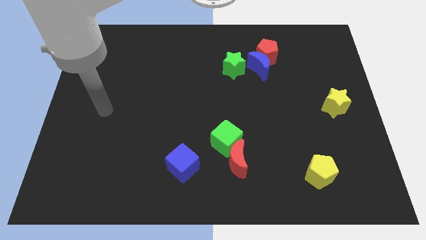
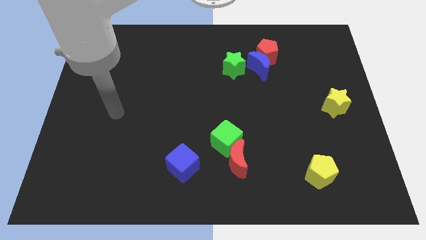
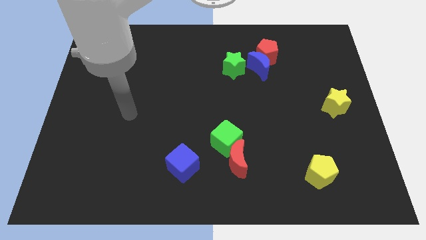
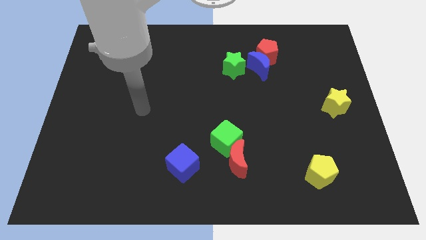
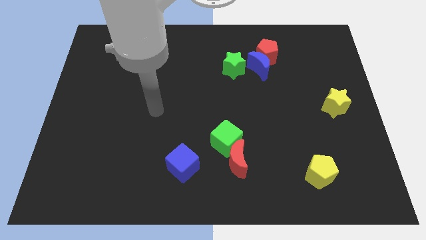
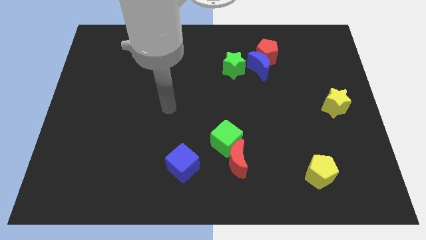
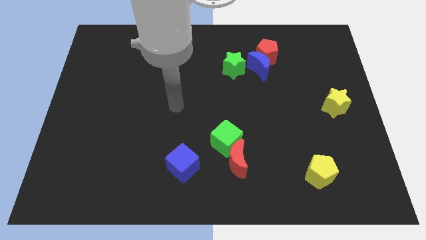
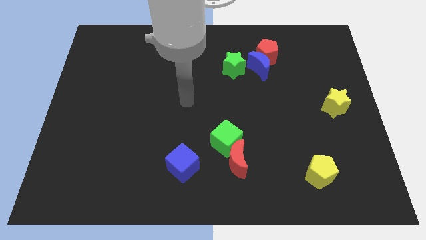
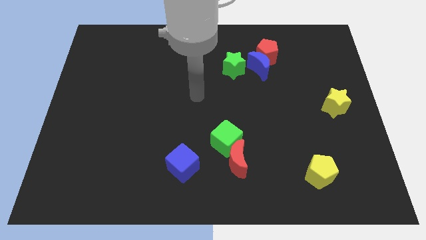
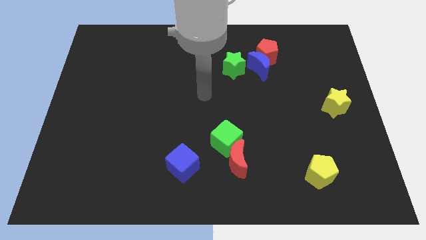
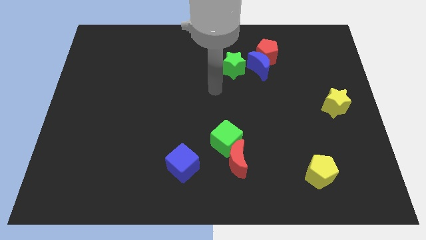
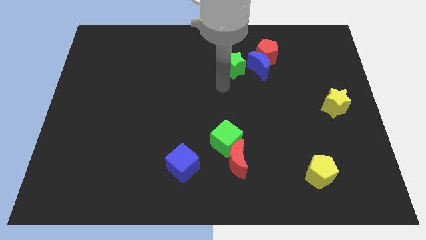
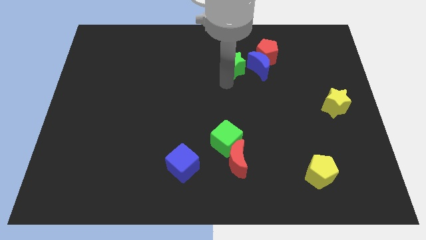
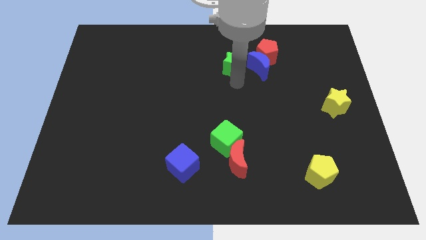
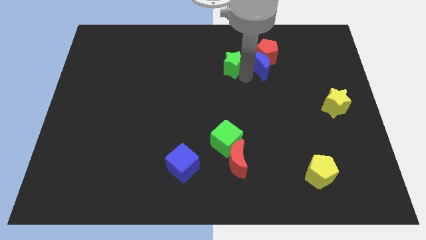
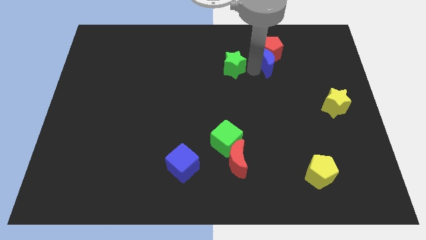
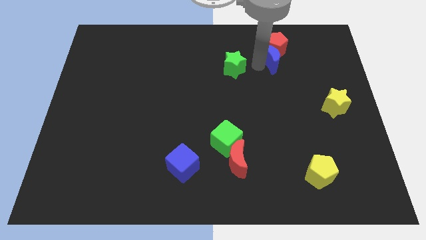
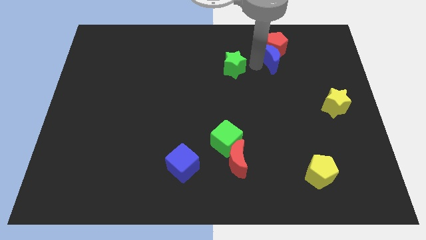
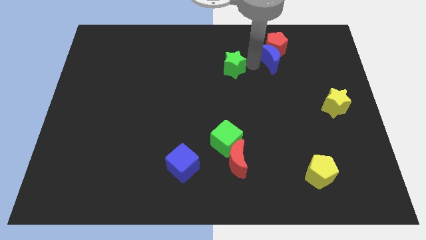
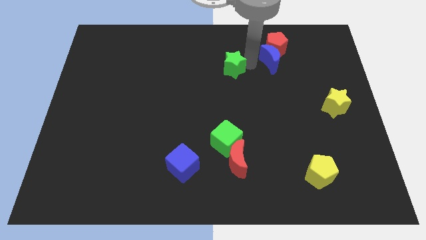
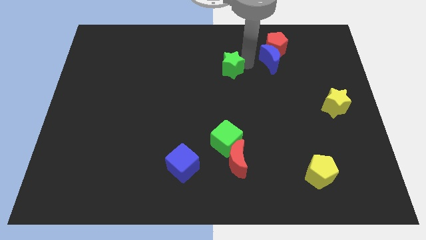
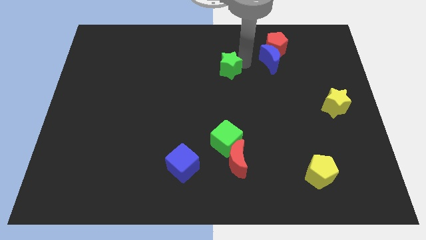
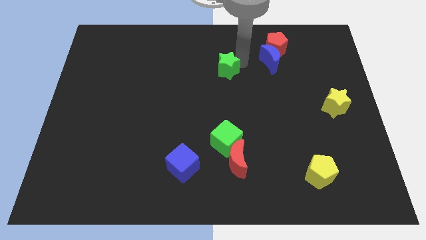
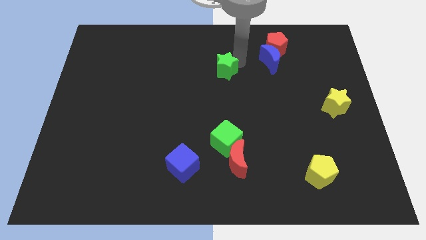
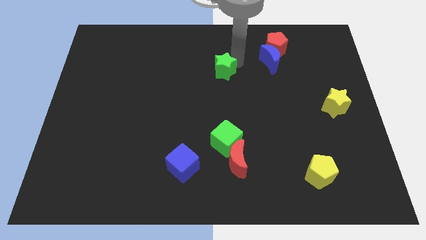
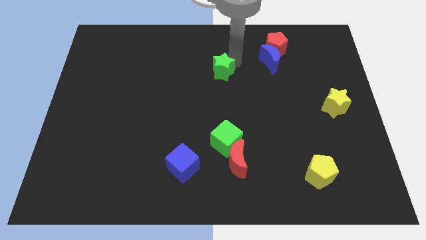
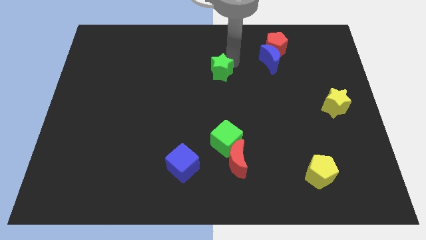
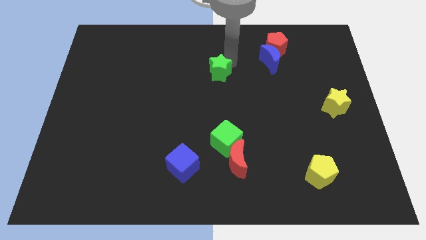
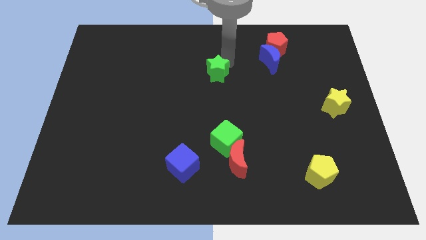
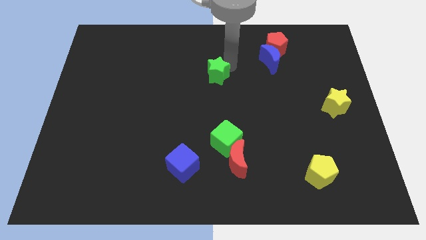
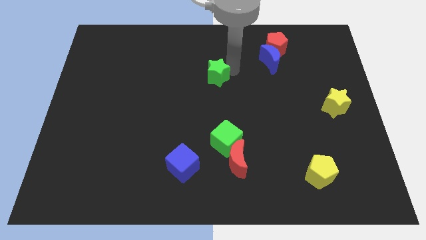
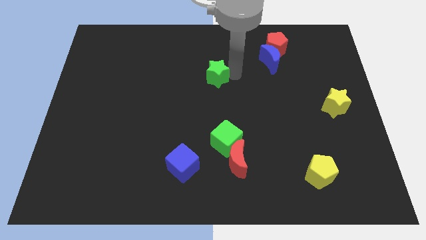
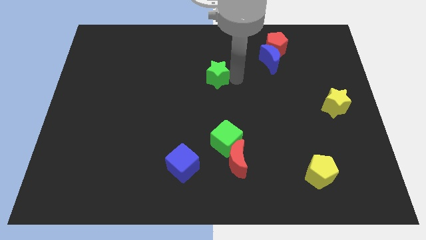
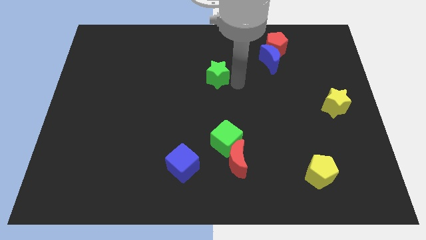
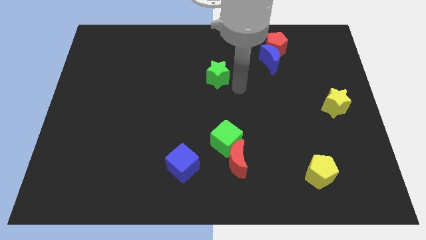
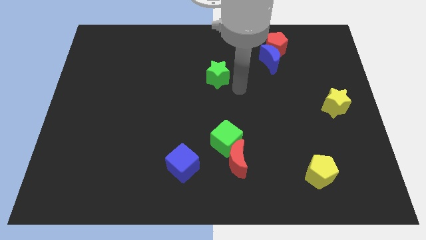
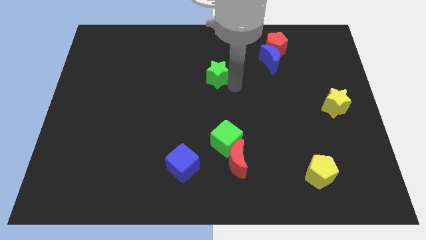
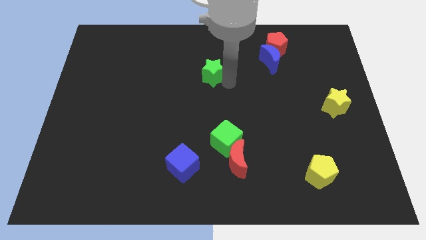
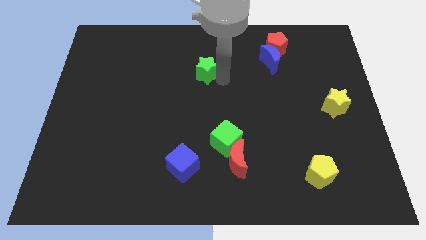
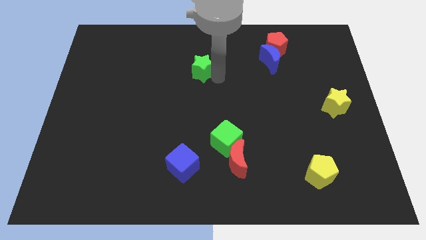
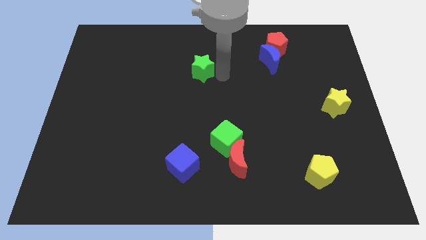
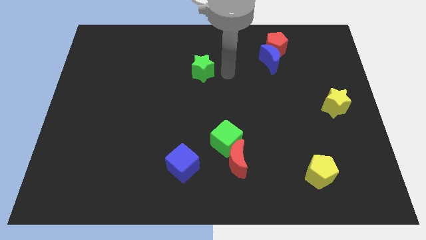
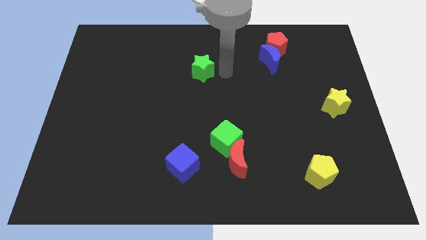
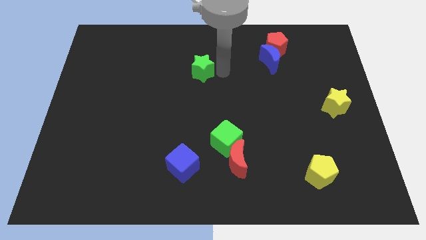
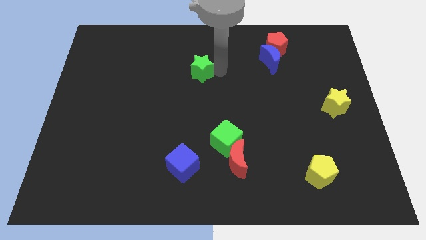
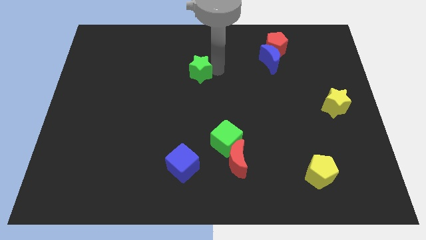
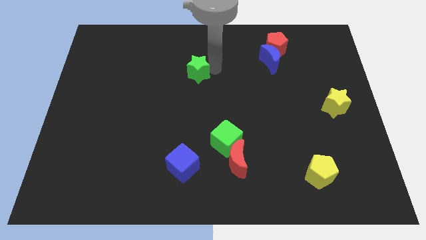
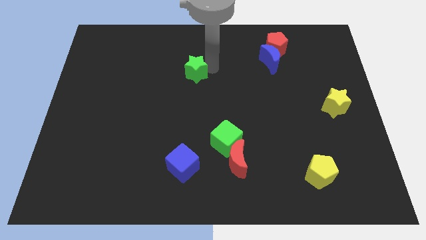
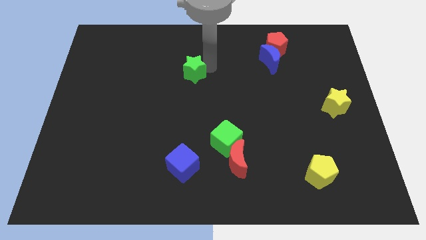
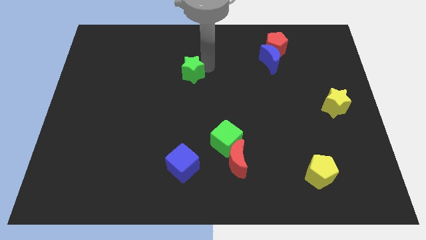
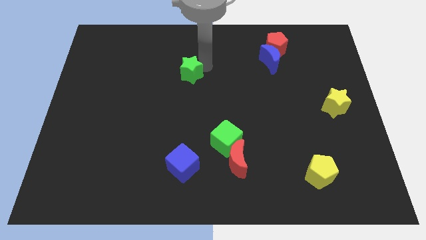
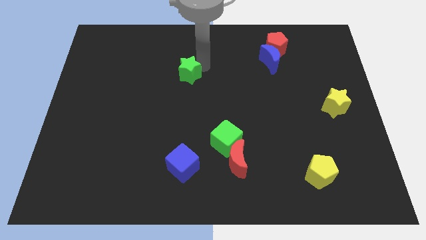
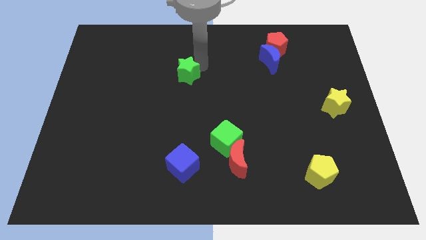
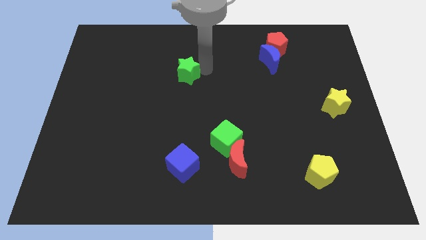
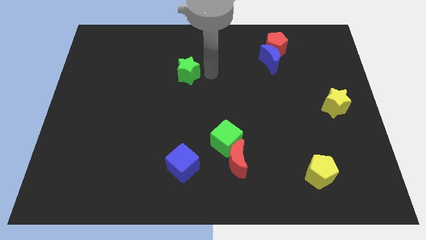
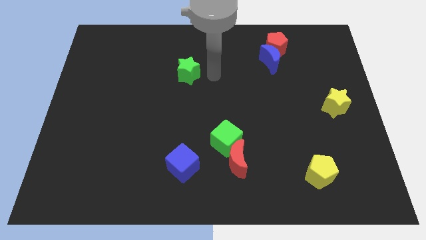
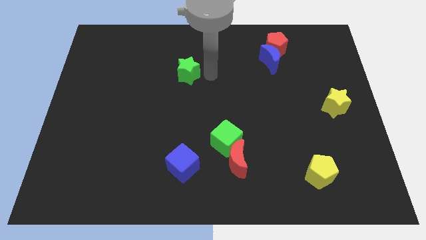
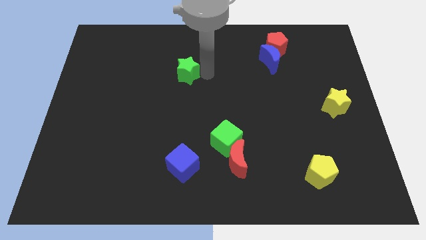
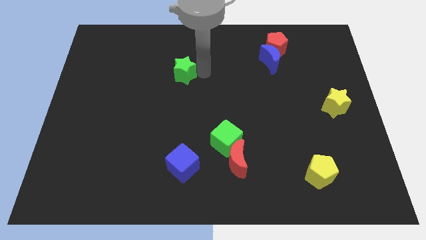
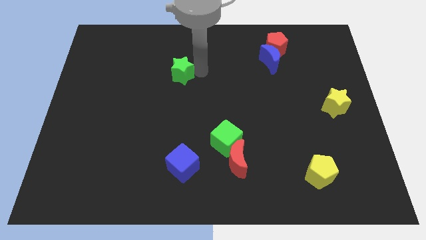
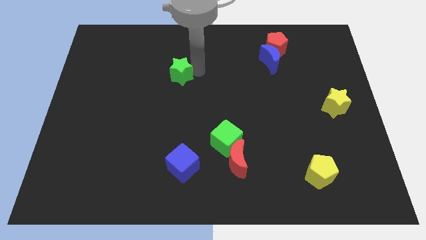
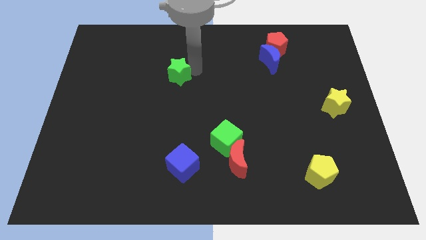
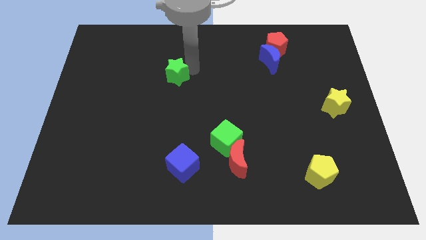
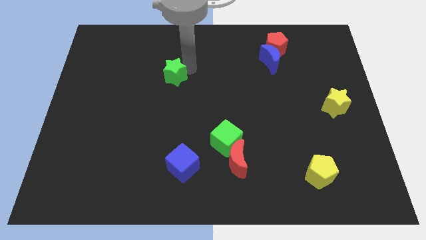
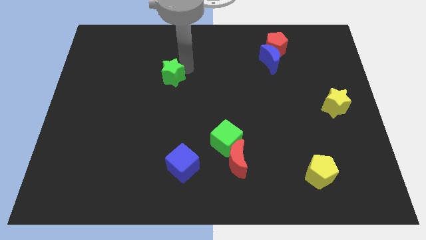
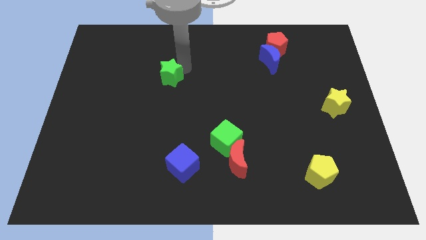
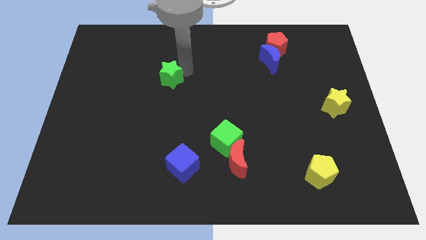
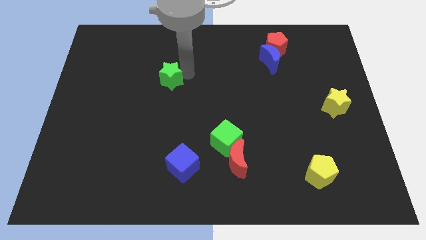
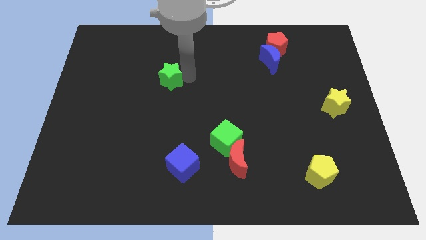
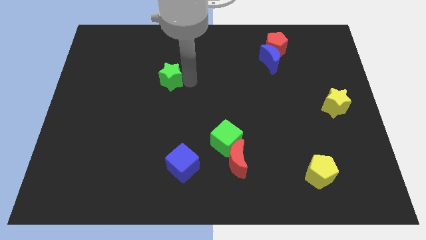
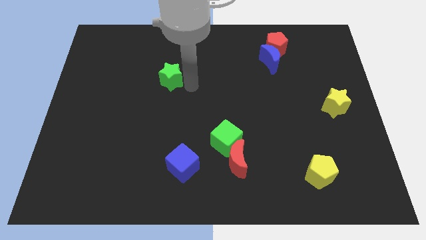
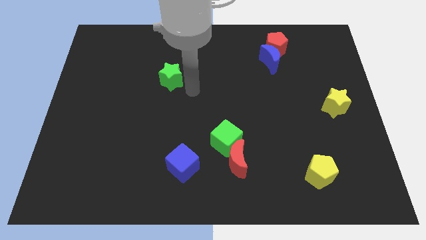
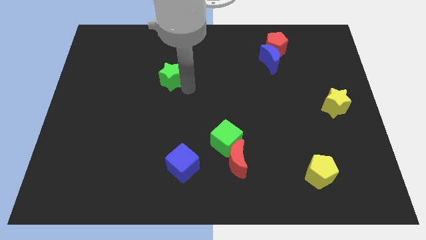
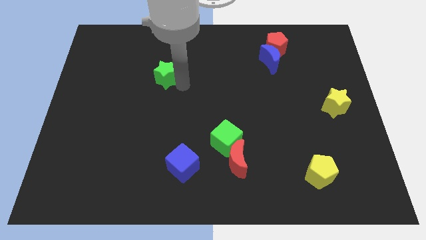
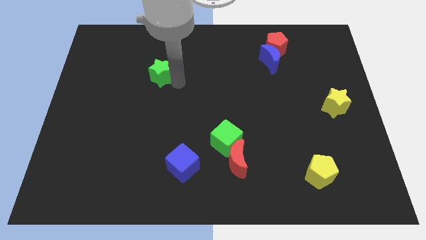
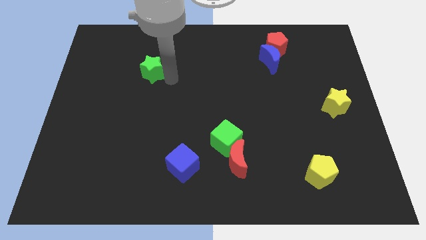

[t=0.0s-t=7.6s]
push the green star left

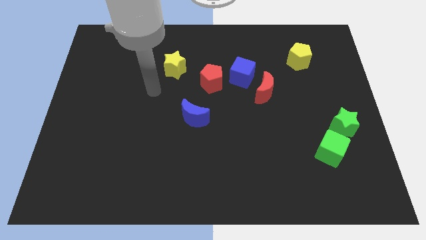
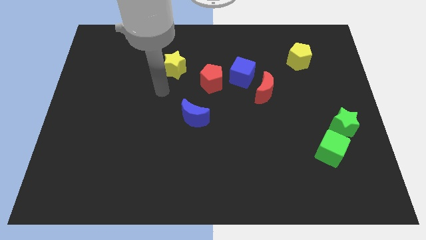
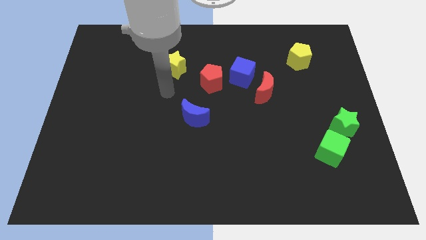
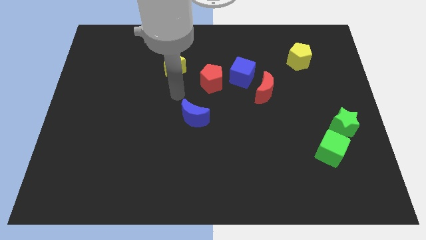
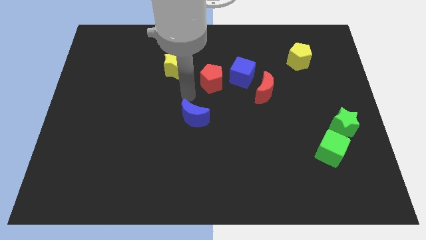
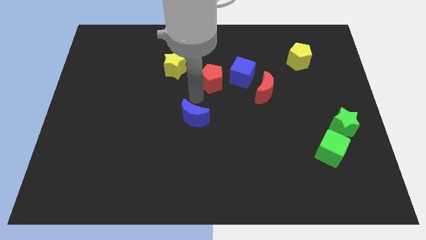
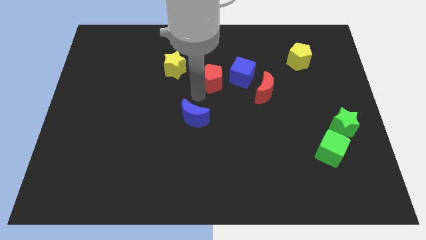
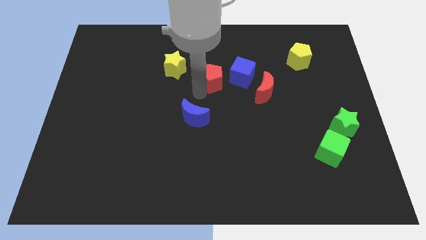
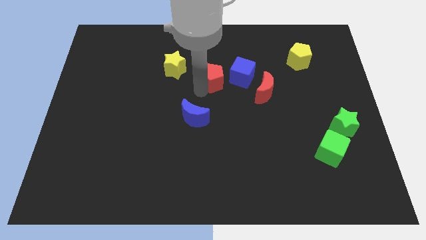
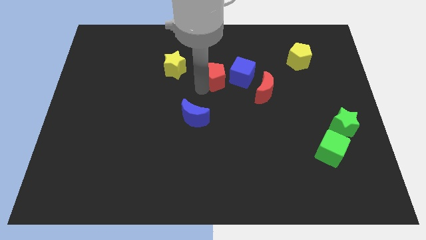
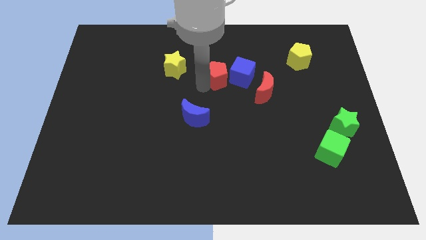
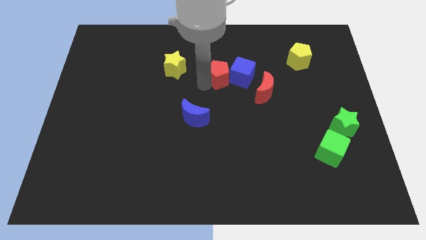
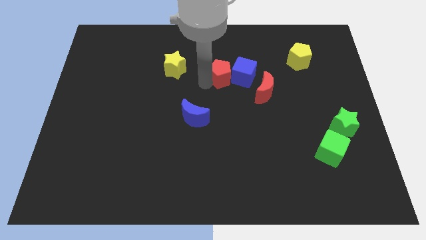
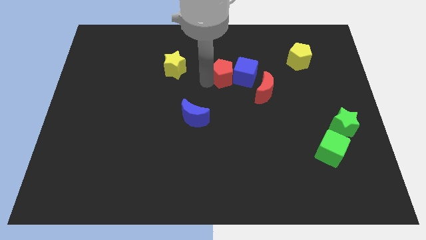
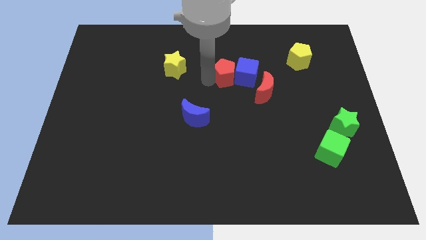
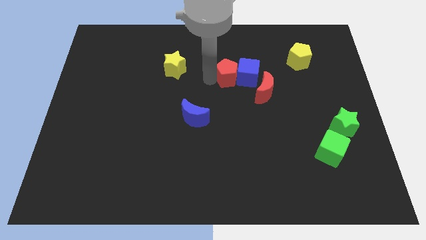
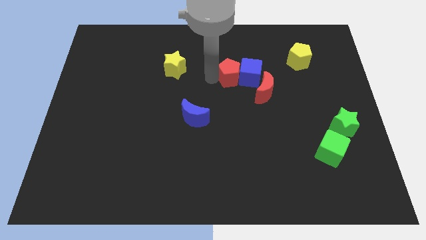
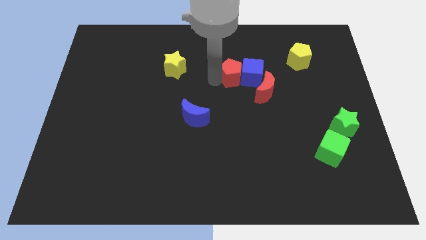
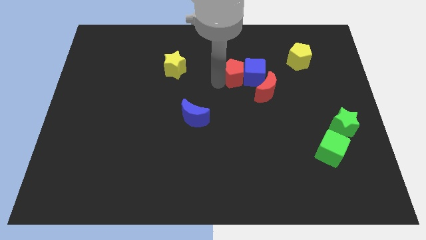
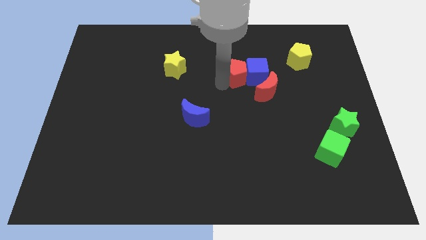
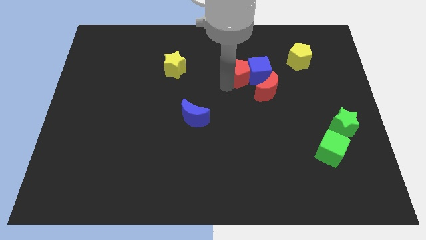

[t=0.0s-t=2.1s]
slightly push the red pentagon right
